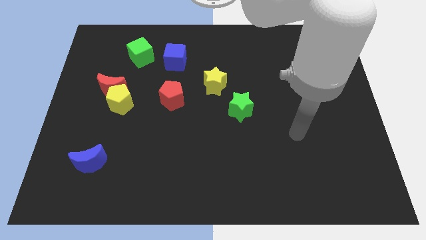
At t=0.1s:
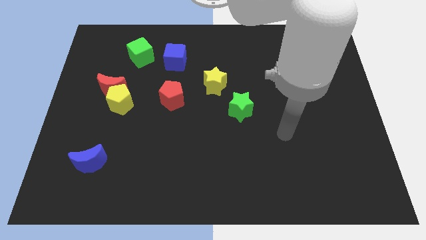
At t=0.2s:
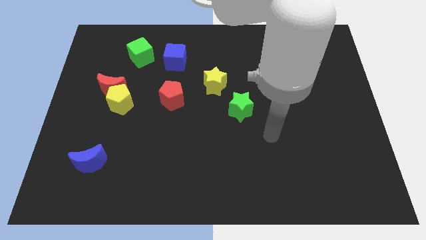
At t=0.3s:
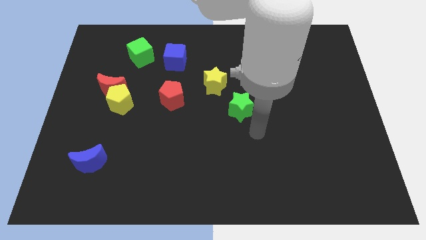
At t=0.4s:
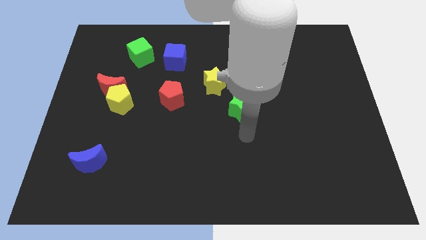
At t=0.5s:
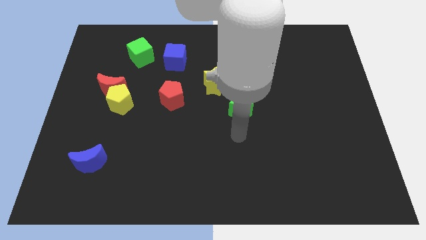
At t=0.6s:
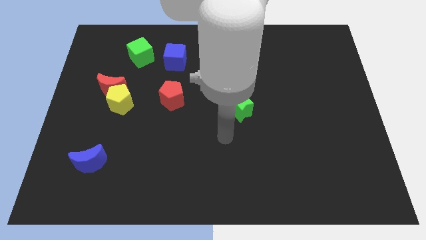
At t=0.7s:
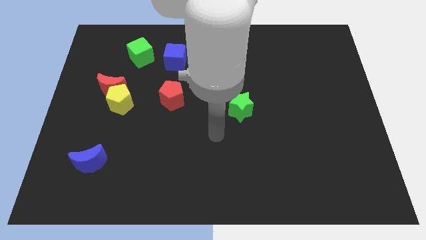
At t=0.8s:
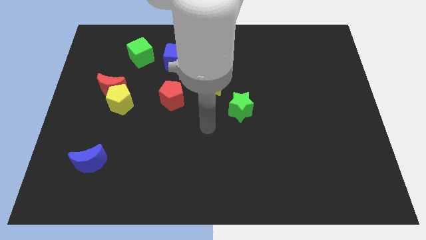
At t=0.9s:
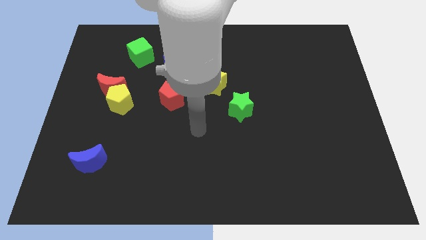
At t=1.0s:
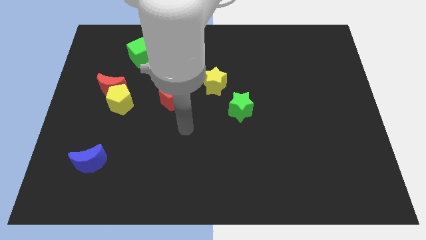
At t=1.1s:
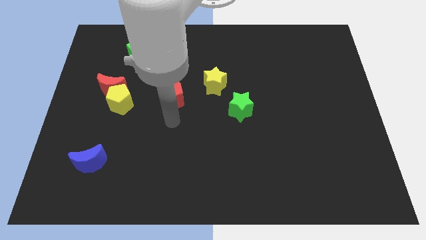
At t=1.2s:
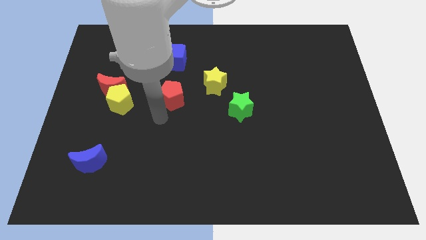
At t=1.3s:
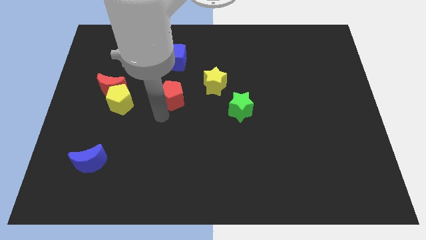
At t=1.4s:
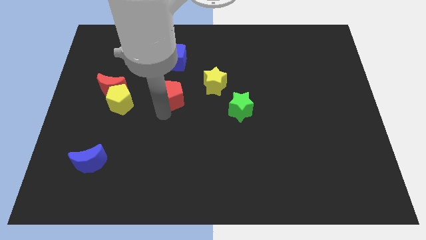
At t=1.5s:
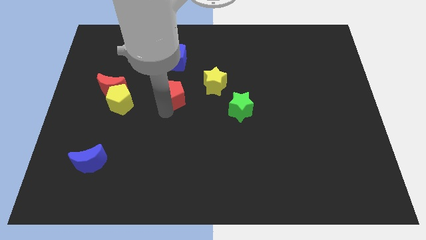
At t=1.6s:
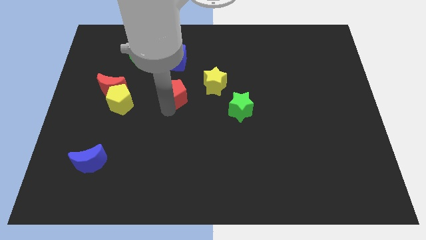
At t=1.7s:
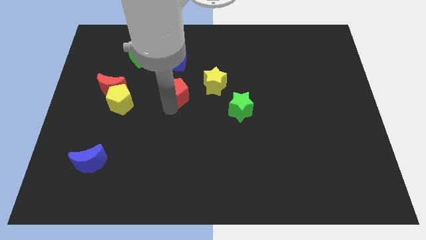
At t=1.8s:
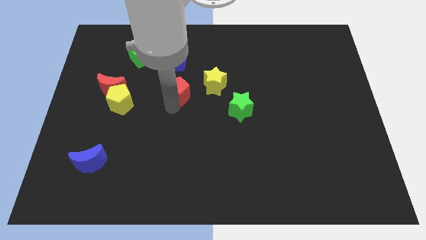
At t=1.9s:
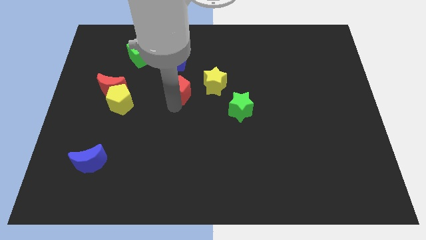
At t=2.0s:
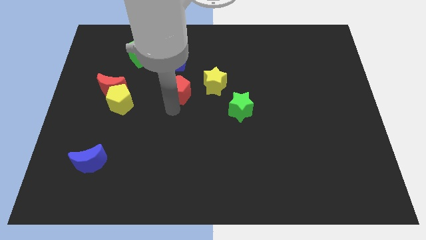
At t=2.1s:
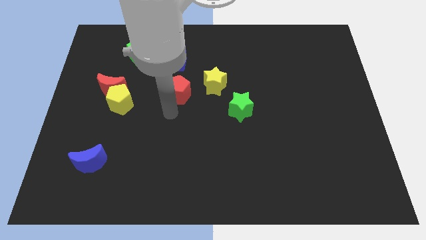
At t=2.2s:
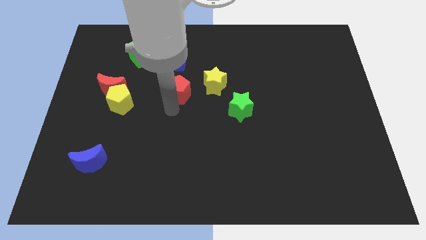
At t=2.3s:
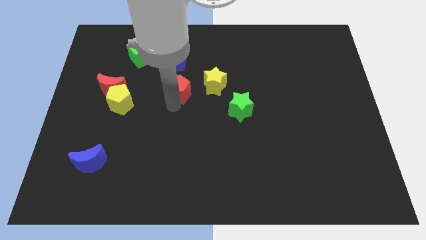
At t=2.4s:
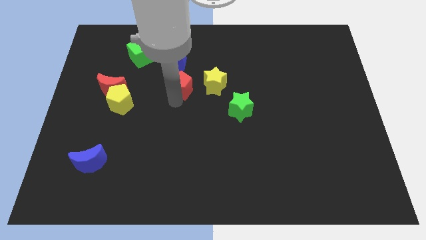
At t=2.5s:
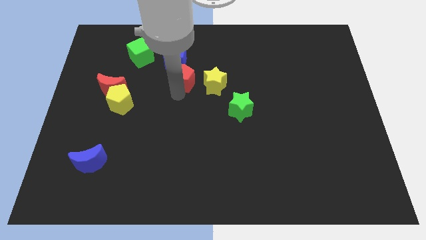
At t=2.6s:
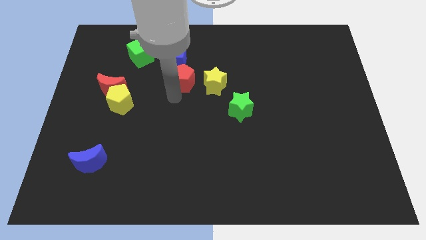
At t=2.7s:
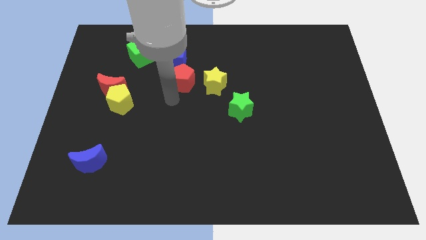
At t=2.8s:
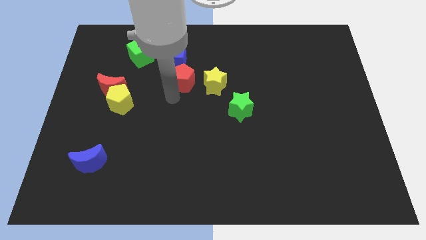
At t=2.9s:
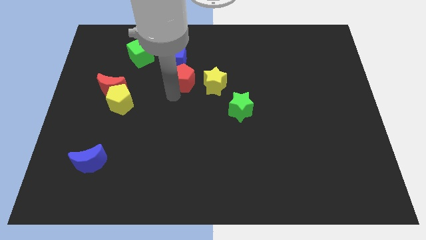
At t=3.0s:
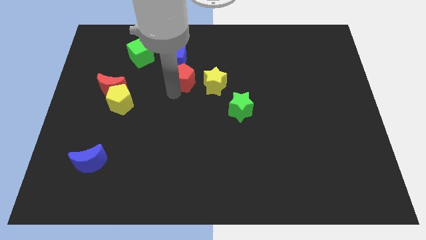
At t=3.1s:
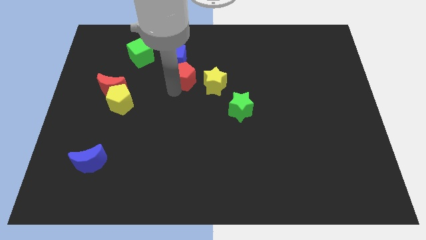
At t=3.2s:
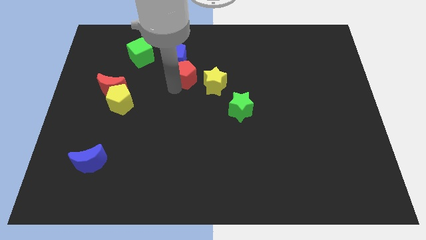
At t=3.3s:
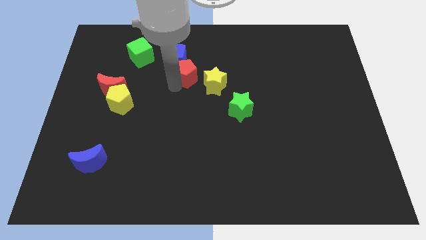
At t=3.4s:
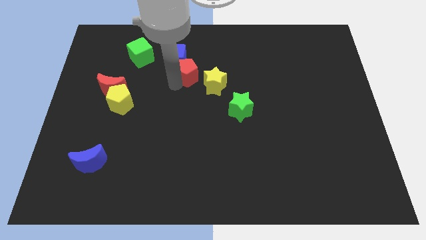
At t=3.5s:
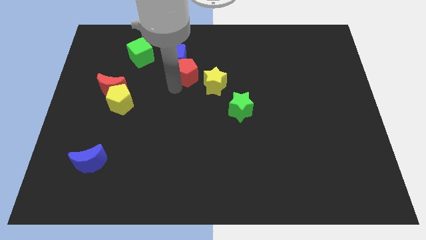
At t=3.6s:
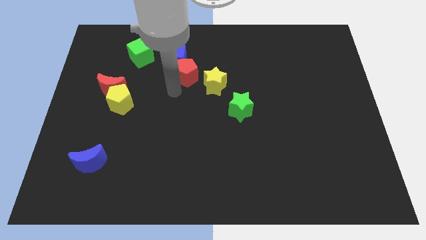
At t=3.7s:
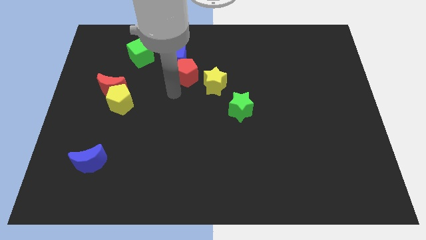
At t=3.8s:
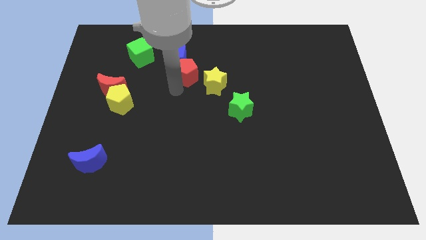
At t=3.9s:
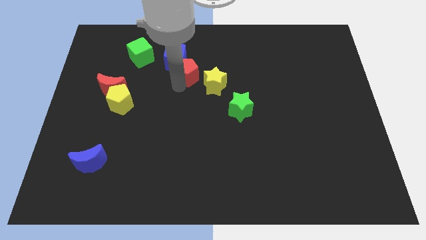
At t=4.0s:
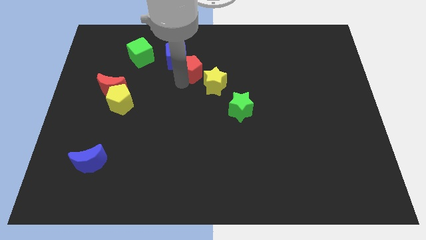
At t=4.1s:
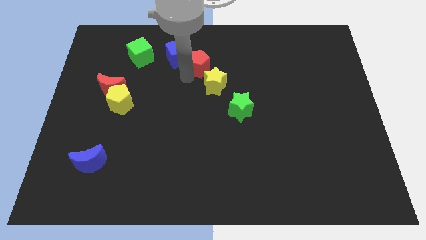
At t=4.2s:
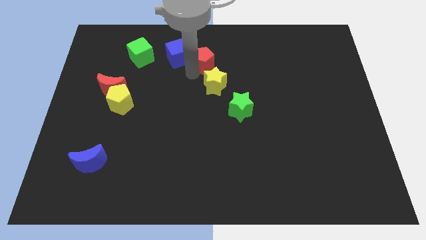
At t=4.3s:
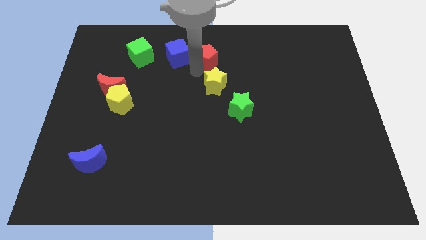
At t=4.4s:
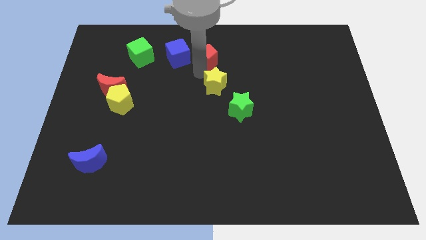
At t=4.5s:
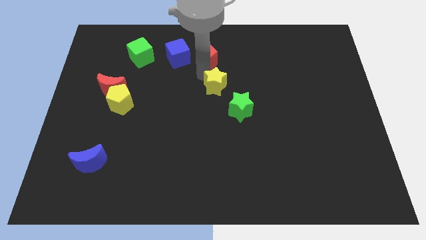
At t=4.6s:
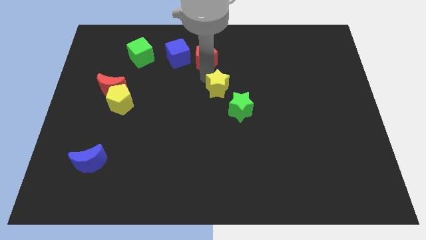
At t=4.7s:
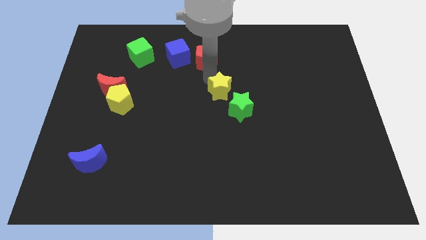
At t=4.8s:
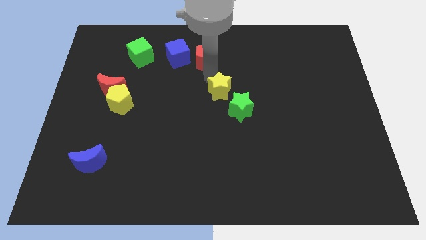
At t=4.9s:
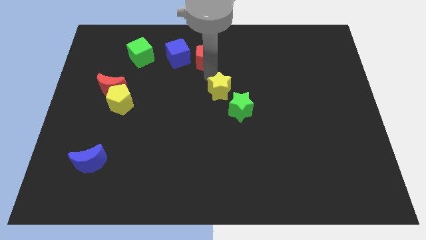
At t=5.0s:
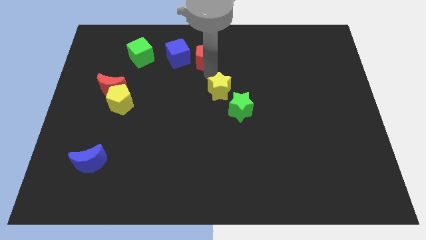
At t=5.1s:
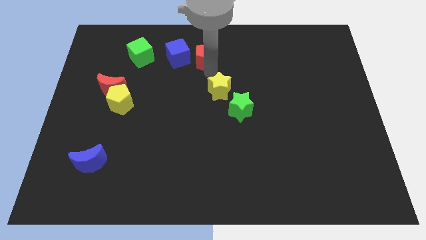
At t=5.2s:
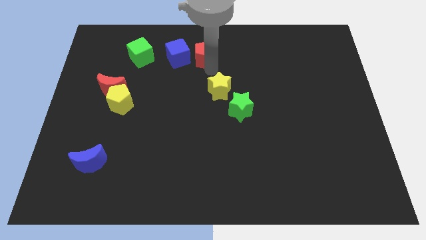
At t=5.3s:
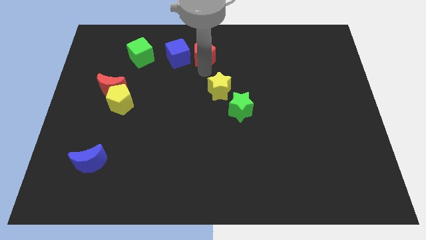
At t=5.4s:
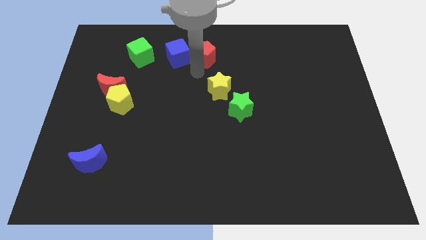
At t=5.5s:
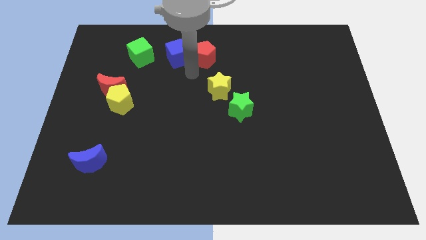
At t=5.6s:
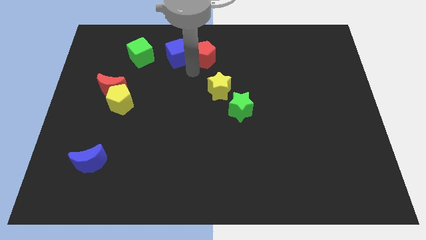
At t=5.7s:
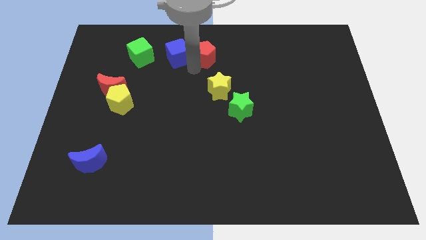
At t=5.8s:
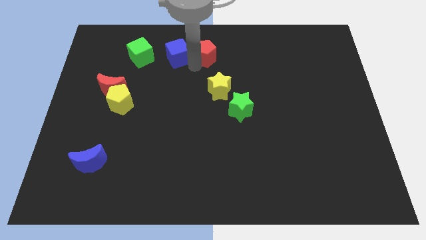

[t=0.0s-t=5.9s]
slide the red pentagon to the top

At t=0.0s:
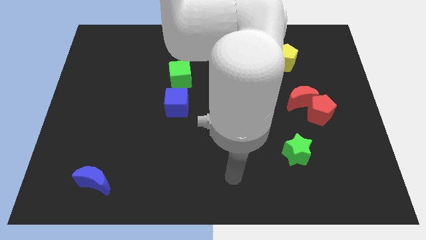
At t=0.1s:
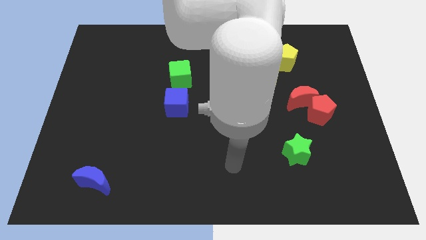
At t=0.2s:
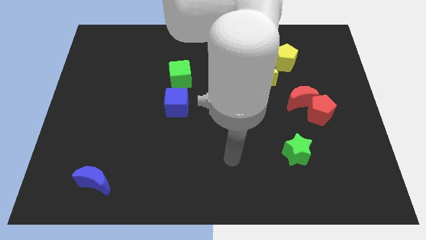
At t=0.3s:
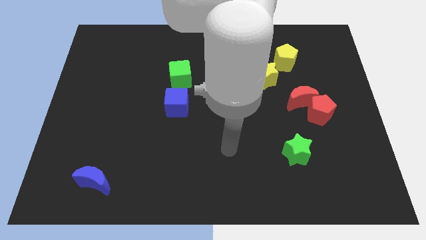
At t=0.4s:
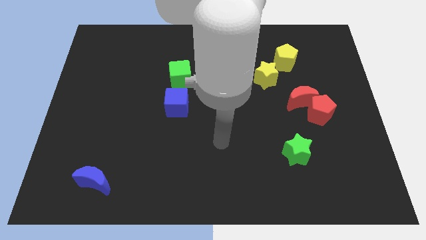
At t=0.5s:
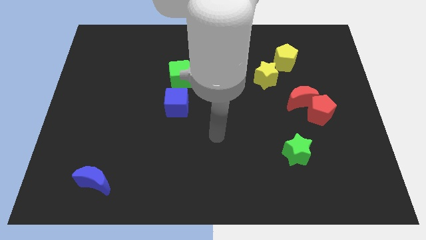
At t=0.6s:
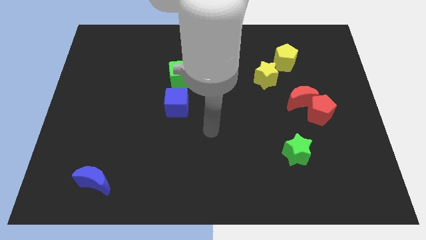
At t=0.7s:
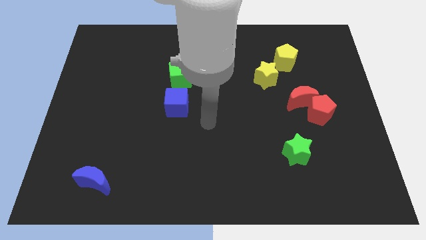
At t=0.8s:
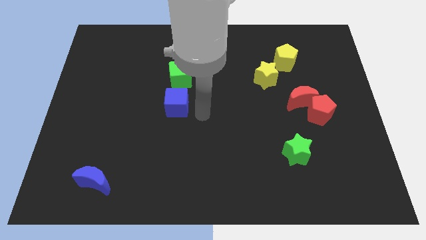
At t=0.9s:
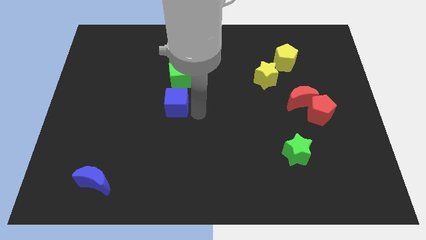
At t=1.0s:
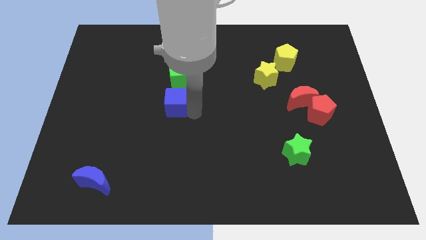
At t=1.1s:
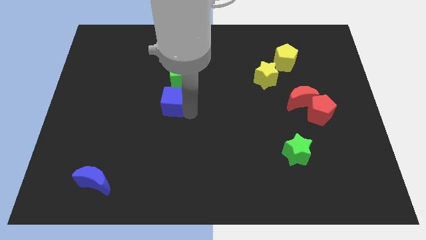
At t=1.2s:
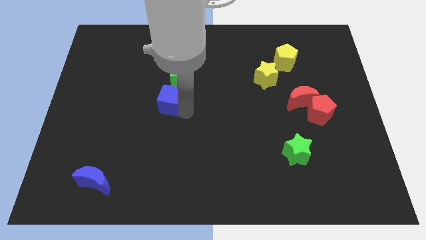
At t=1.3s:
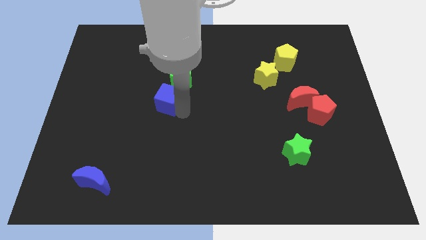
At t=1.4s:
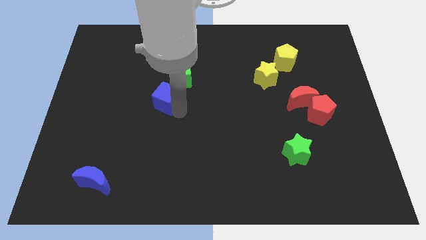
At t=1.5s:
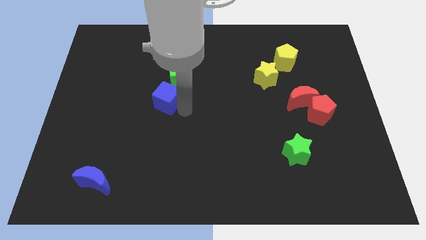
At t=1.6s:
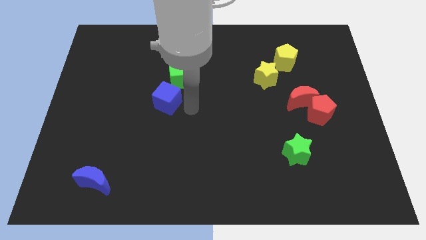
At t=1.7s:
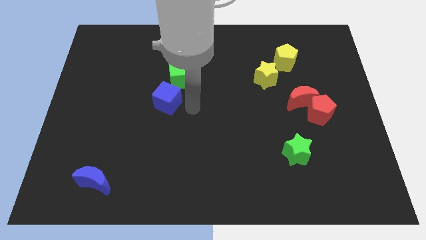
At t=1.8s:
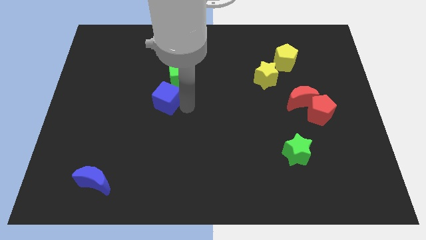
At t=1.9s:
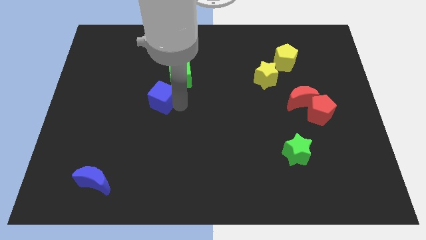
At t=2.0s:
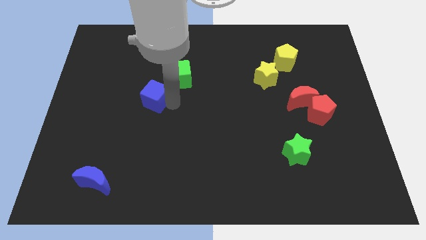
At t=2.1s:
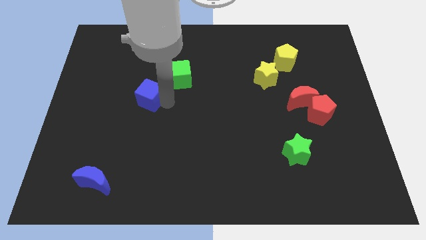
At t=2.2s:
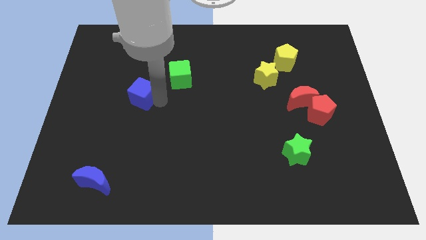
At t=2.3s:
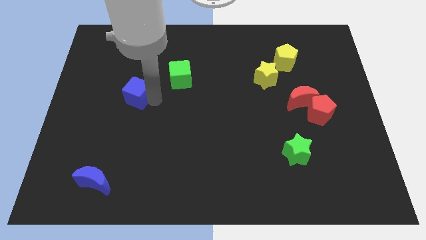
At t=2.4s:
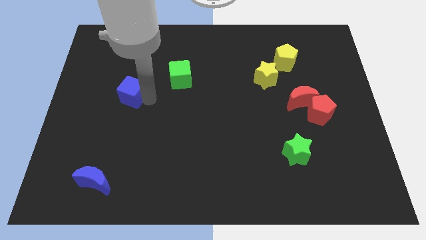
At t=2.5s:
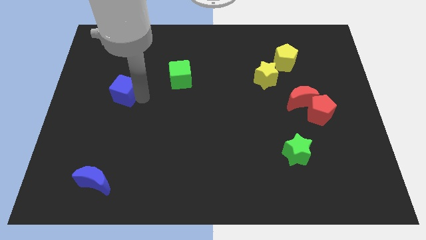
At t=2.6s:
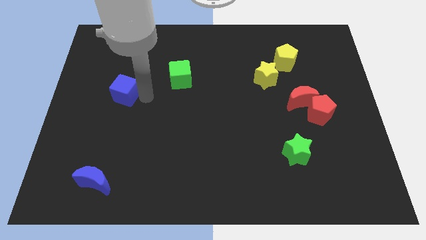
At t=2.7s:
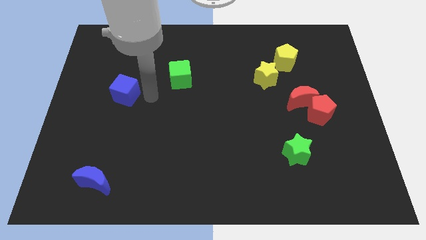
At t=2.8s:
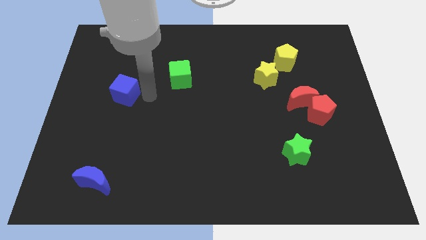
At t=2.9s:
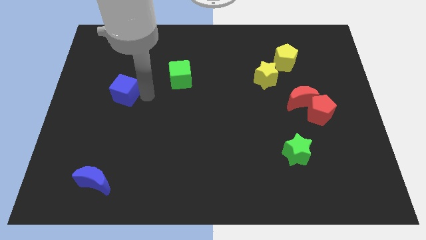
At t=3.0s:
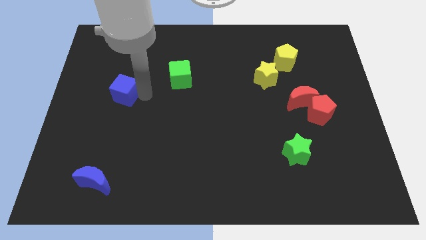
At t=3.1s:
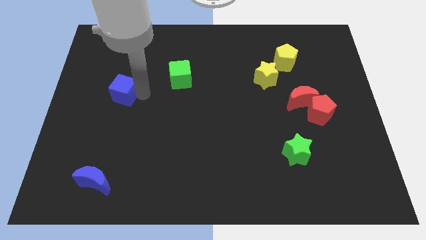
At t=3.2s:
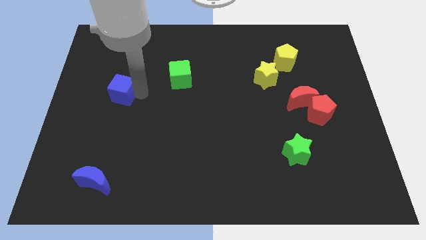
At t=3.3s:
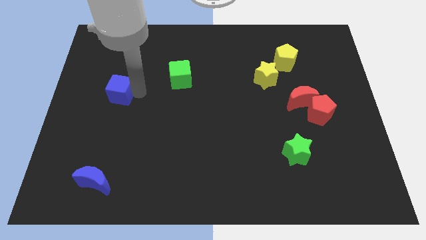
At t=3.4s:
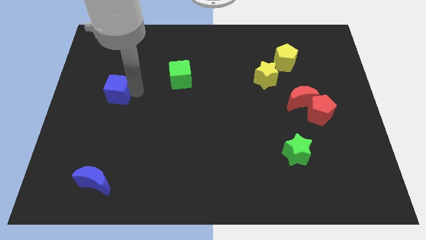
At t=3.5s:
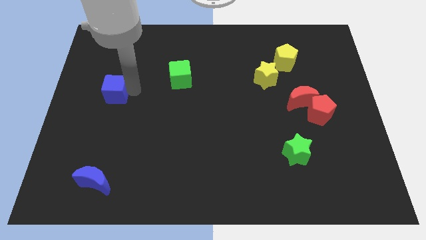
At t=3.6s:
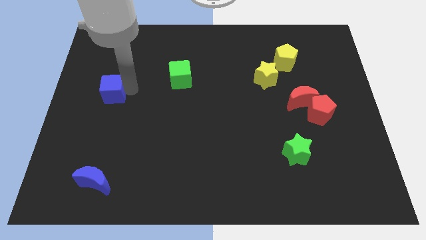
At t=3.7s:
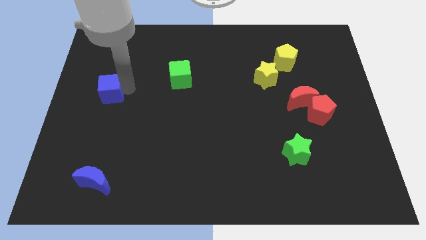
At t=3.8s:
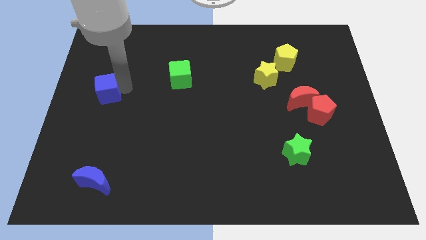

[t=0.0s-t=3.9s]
push the blue cube to the left side
